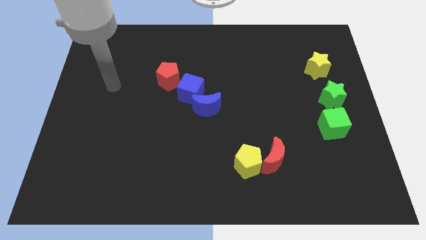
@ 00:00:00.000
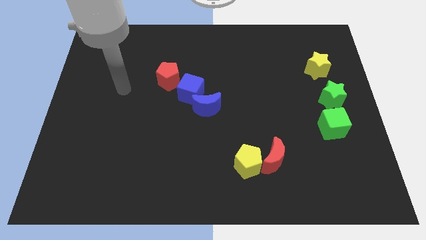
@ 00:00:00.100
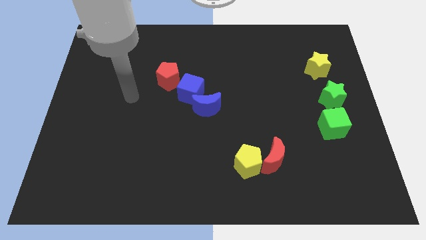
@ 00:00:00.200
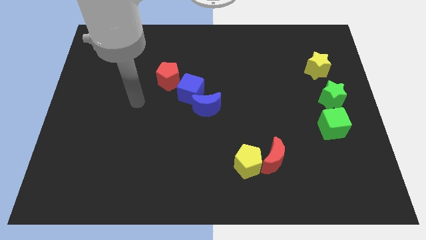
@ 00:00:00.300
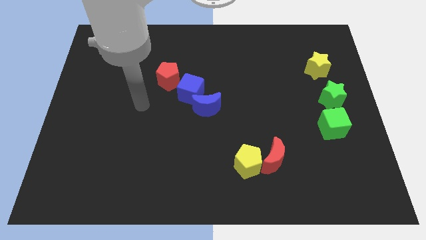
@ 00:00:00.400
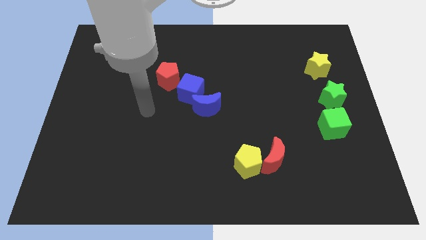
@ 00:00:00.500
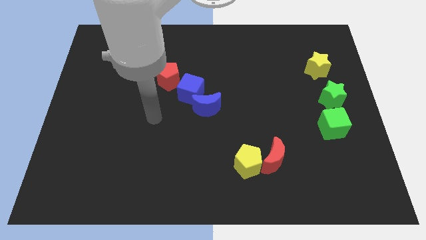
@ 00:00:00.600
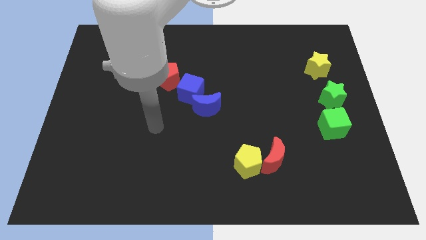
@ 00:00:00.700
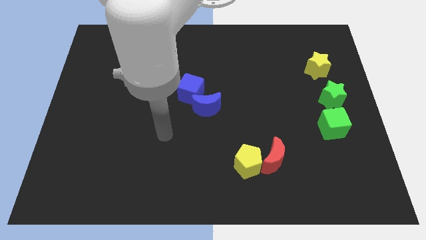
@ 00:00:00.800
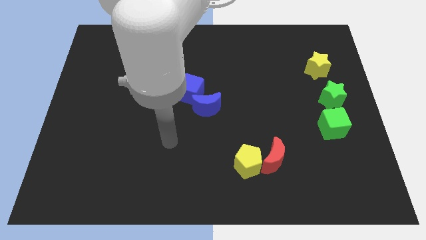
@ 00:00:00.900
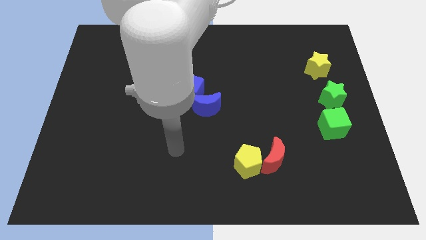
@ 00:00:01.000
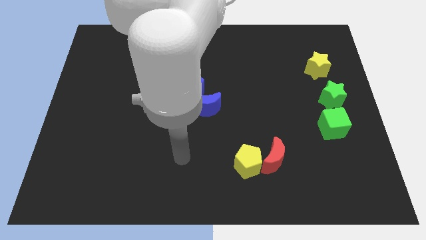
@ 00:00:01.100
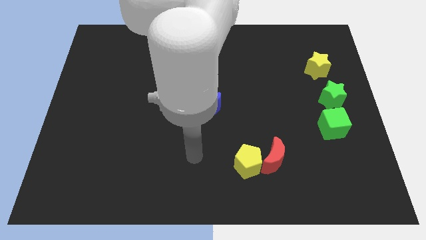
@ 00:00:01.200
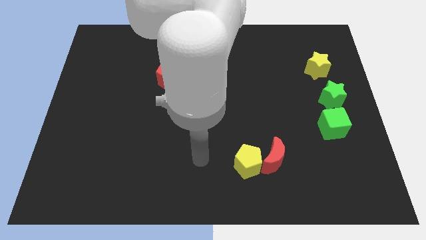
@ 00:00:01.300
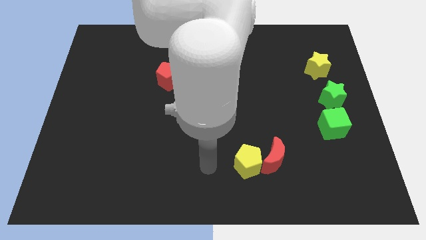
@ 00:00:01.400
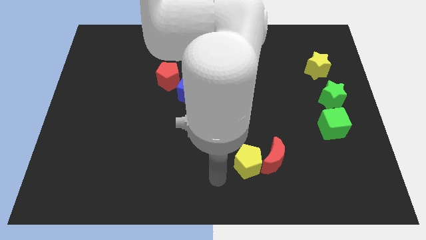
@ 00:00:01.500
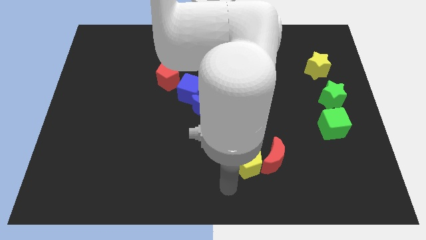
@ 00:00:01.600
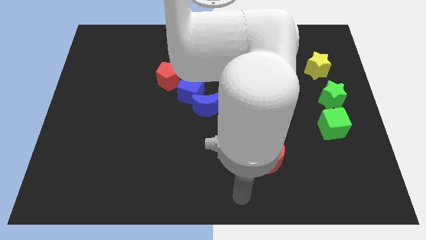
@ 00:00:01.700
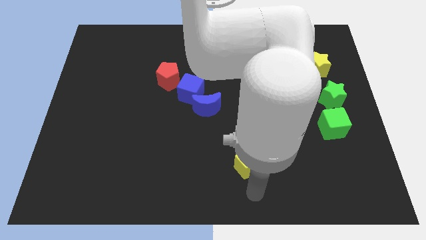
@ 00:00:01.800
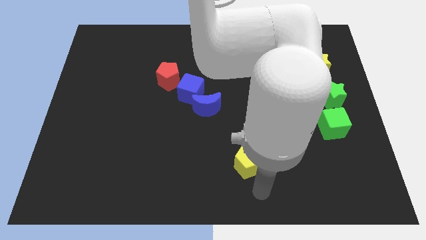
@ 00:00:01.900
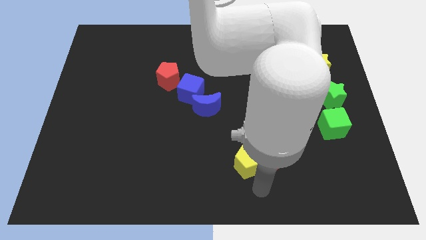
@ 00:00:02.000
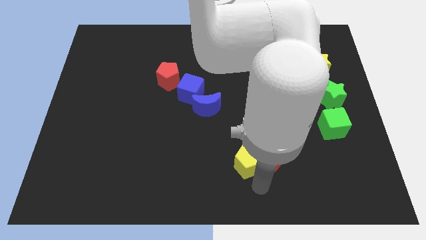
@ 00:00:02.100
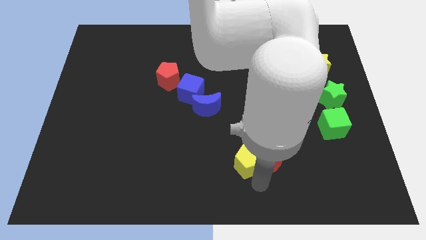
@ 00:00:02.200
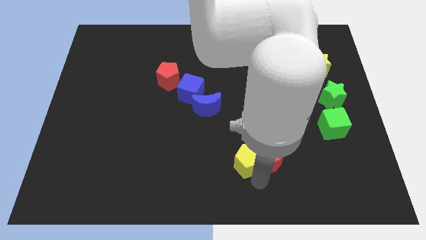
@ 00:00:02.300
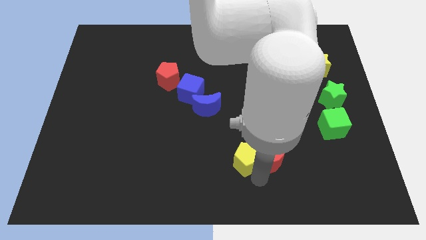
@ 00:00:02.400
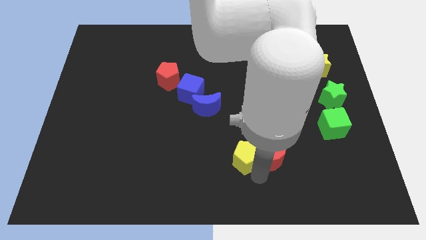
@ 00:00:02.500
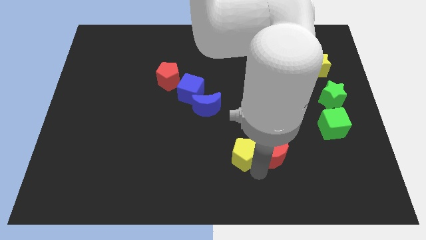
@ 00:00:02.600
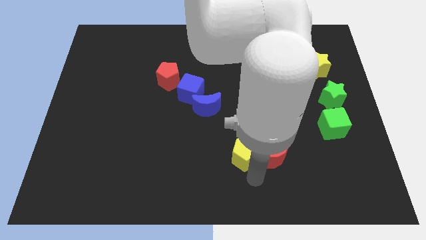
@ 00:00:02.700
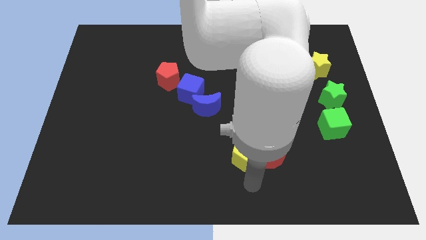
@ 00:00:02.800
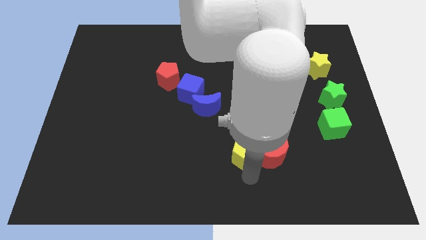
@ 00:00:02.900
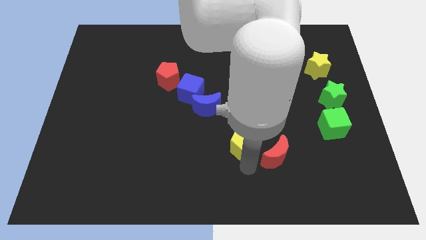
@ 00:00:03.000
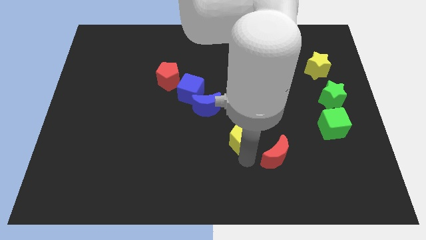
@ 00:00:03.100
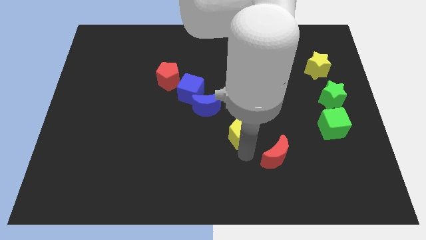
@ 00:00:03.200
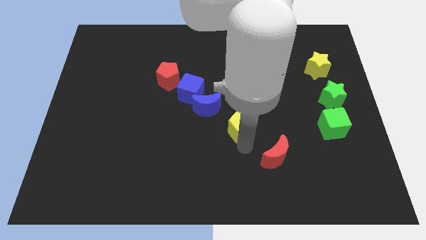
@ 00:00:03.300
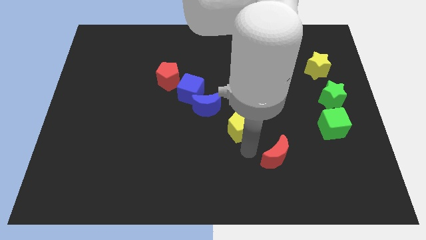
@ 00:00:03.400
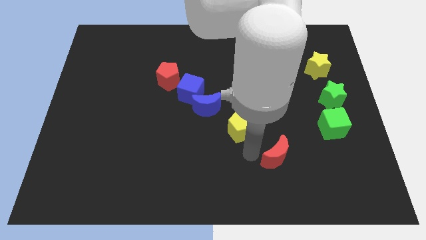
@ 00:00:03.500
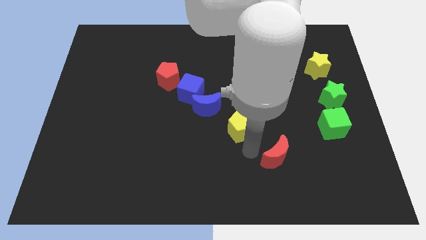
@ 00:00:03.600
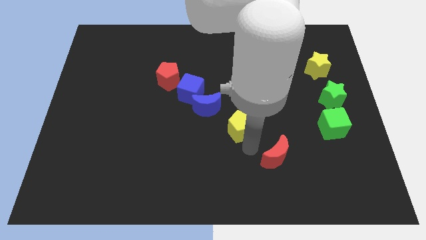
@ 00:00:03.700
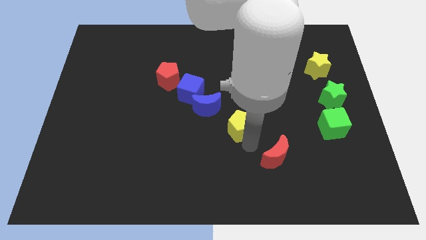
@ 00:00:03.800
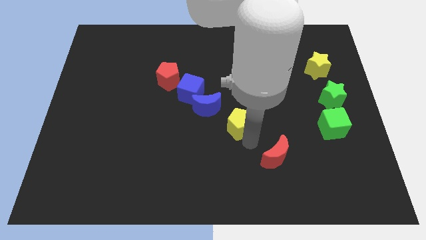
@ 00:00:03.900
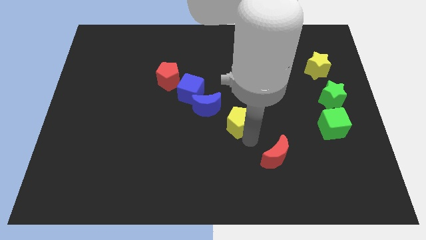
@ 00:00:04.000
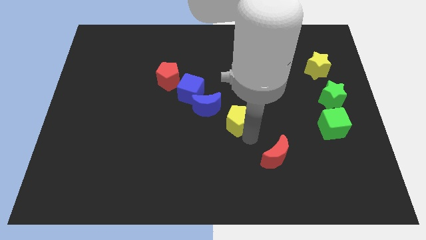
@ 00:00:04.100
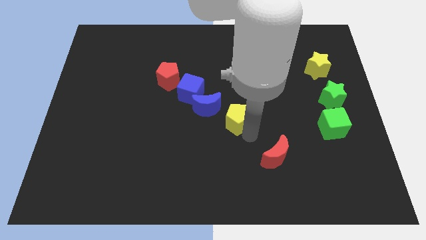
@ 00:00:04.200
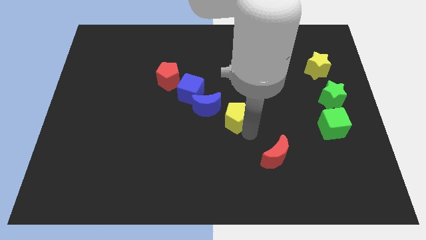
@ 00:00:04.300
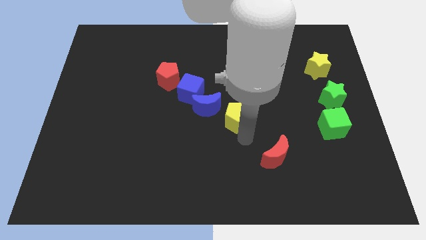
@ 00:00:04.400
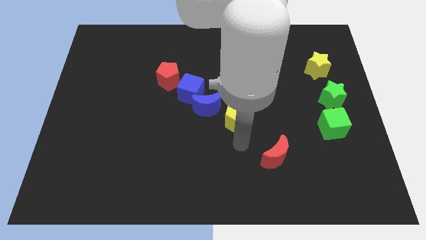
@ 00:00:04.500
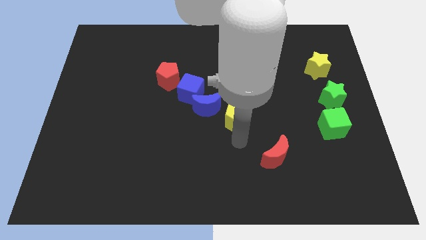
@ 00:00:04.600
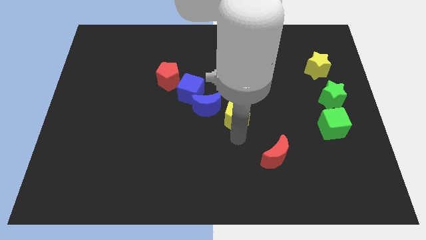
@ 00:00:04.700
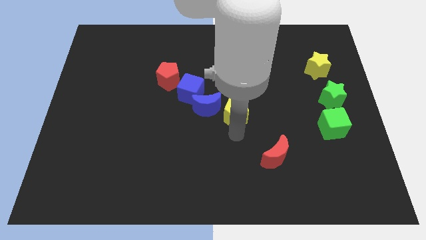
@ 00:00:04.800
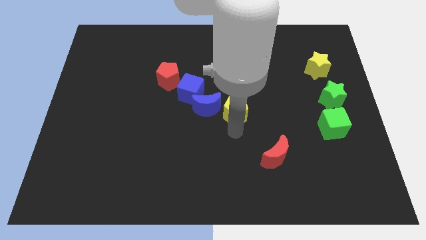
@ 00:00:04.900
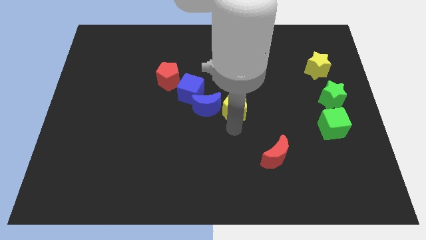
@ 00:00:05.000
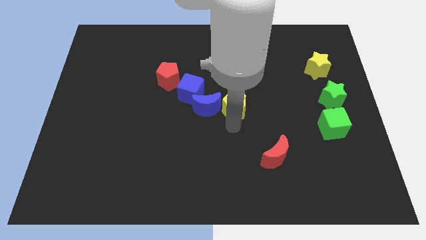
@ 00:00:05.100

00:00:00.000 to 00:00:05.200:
push the yellow pentagon to the right of the blue cube

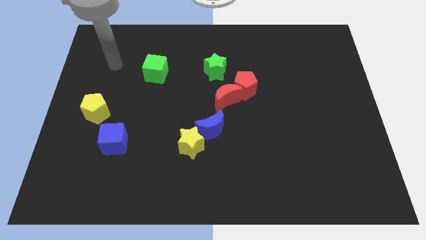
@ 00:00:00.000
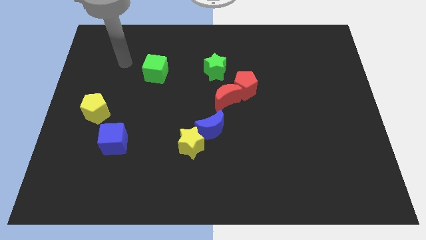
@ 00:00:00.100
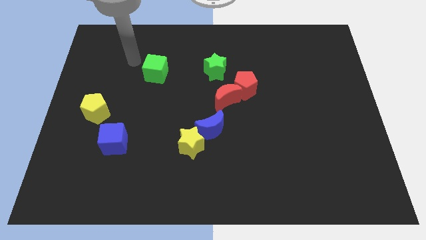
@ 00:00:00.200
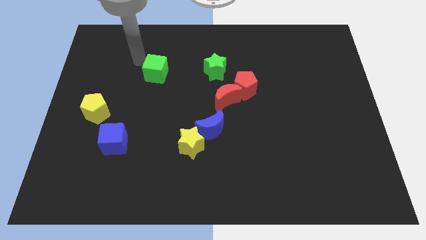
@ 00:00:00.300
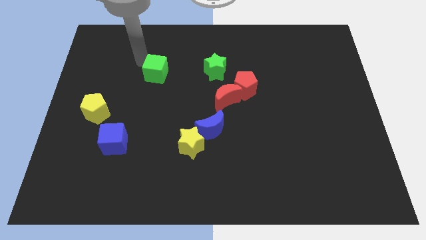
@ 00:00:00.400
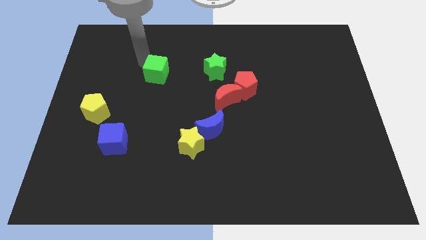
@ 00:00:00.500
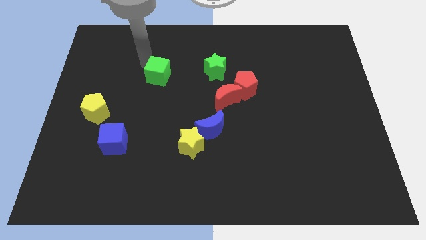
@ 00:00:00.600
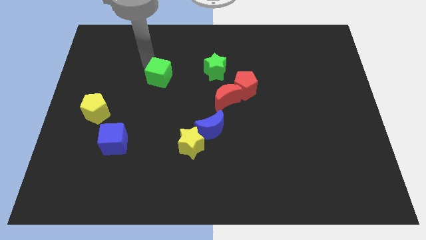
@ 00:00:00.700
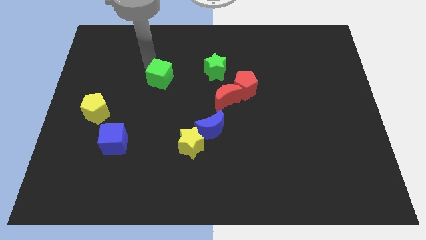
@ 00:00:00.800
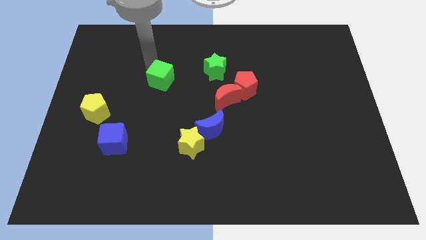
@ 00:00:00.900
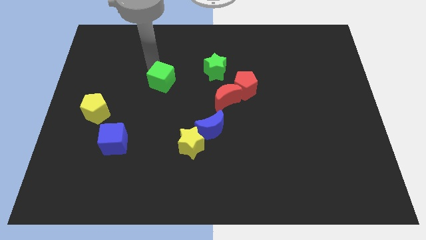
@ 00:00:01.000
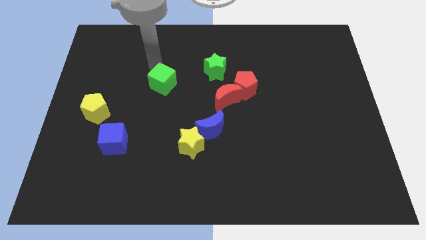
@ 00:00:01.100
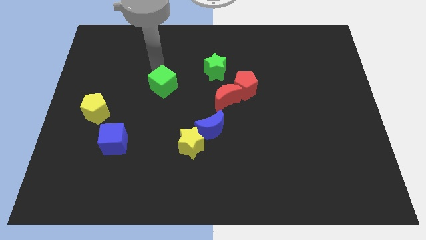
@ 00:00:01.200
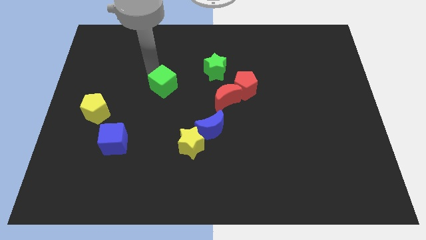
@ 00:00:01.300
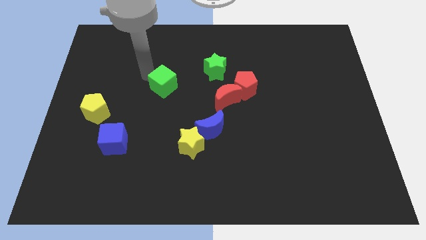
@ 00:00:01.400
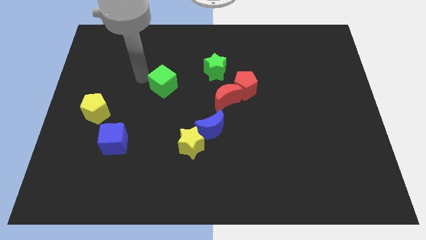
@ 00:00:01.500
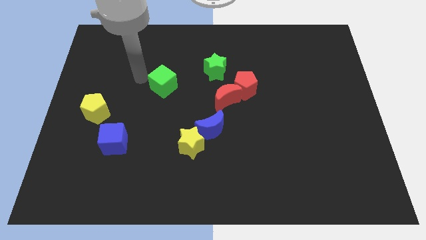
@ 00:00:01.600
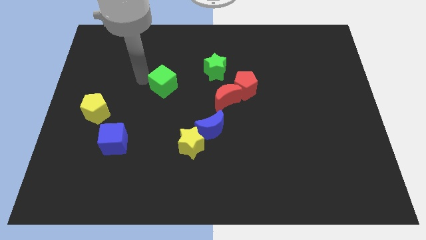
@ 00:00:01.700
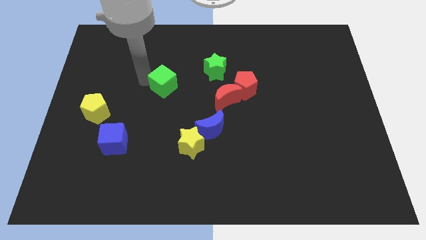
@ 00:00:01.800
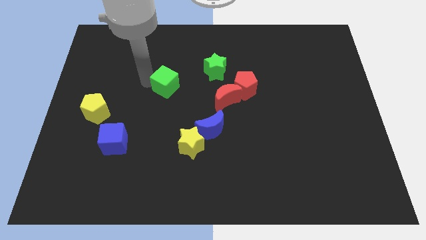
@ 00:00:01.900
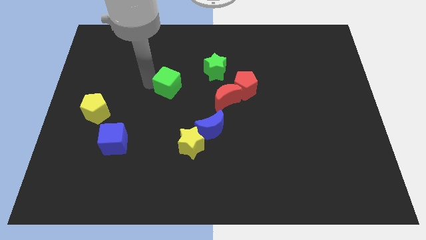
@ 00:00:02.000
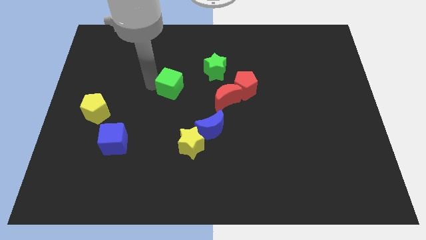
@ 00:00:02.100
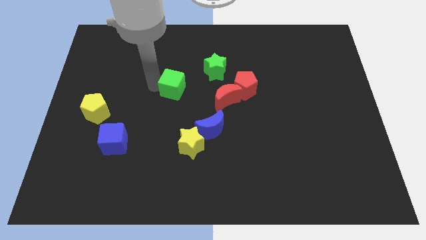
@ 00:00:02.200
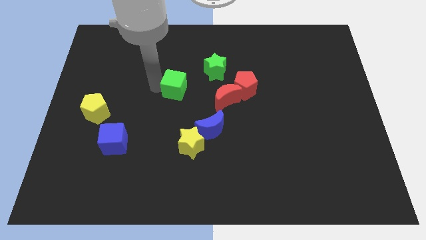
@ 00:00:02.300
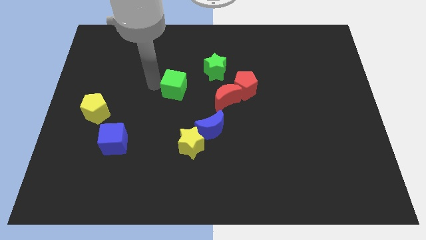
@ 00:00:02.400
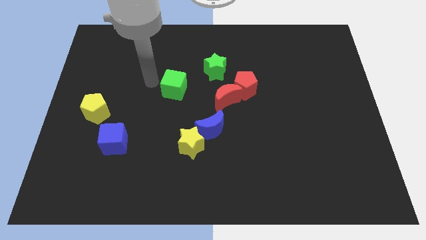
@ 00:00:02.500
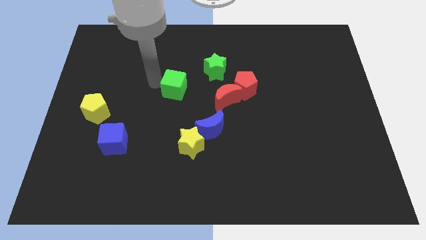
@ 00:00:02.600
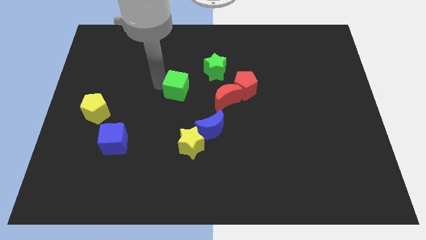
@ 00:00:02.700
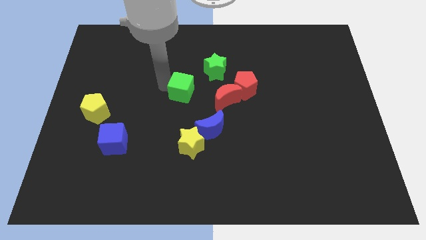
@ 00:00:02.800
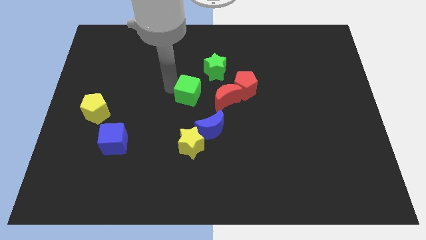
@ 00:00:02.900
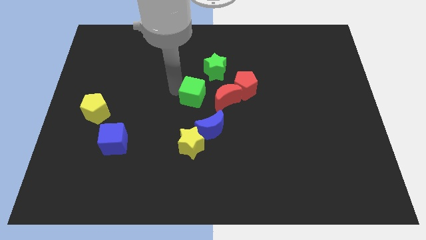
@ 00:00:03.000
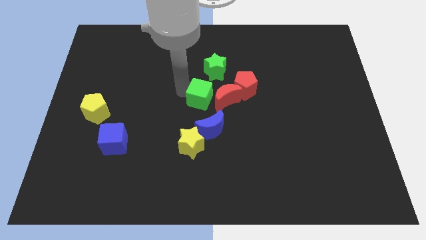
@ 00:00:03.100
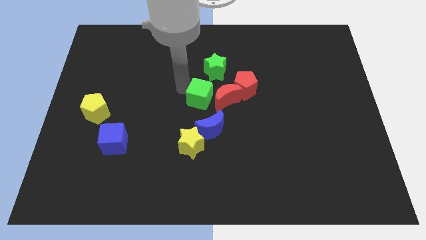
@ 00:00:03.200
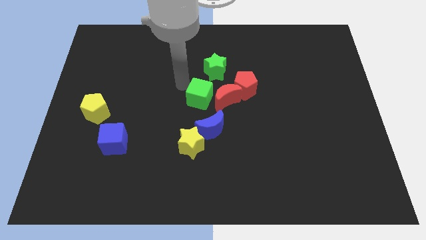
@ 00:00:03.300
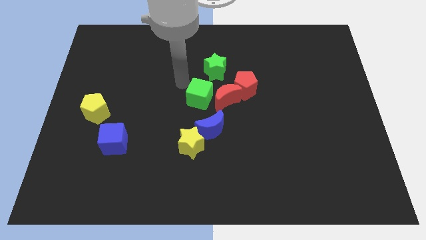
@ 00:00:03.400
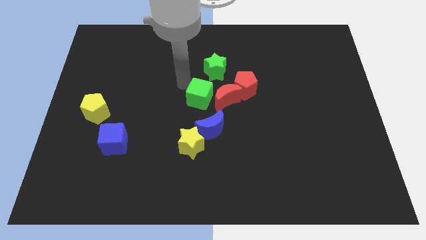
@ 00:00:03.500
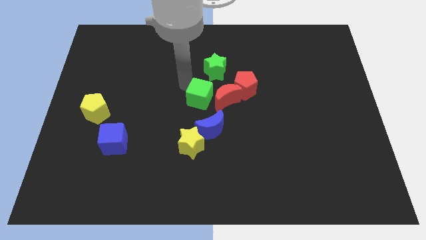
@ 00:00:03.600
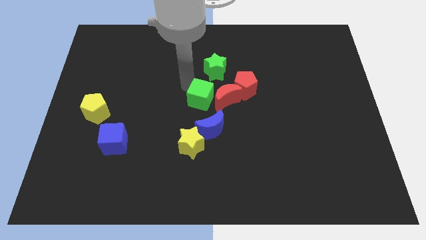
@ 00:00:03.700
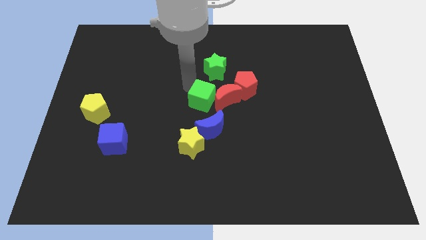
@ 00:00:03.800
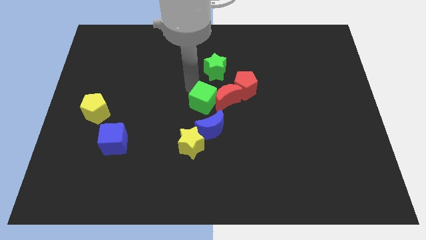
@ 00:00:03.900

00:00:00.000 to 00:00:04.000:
slide the green cube diagonally down and to the left of the red pentagon
